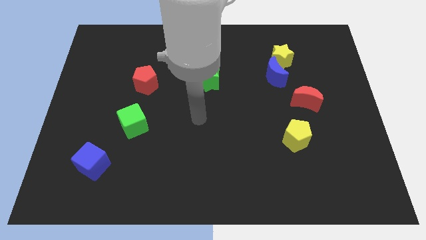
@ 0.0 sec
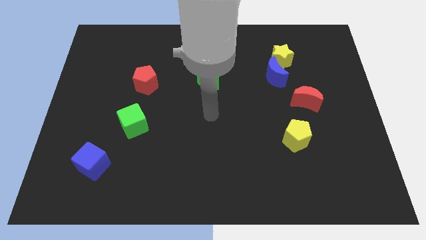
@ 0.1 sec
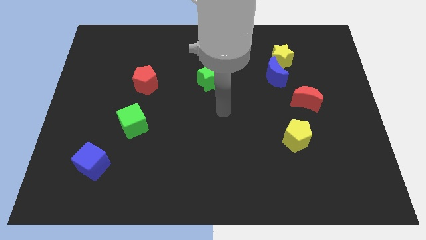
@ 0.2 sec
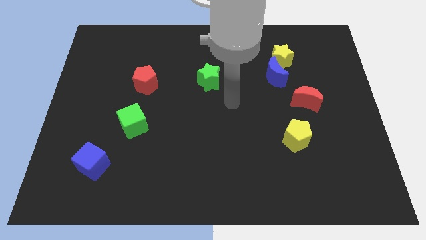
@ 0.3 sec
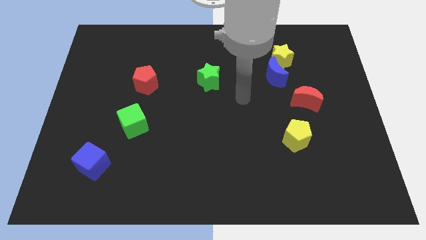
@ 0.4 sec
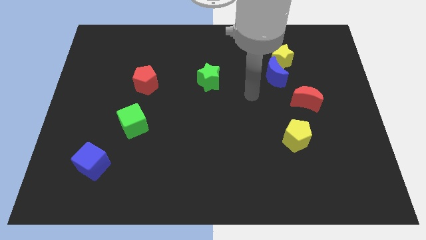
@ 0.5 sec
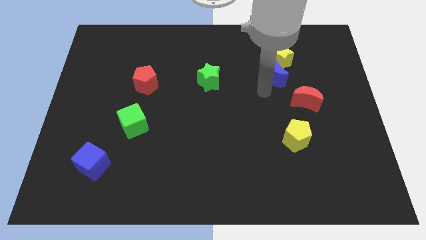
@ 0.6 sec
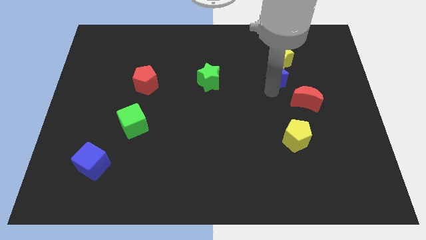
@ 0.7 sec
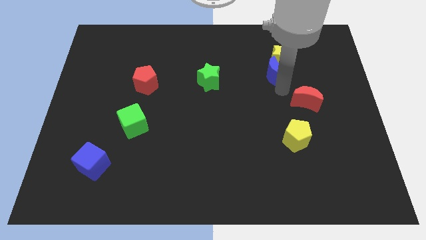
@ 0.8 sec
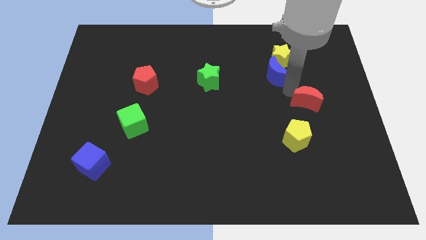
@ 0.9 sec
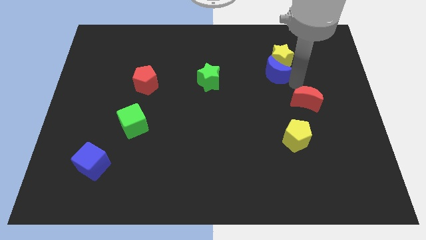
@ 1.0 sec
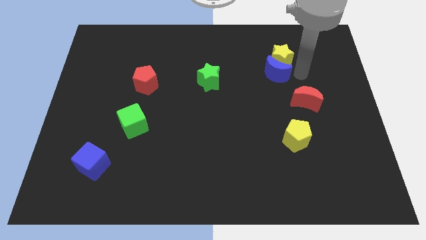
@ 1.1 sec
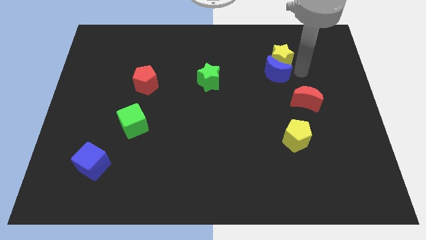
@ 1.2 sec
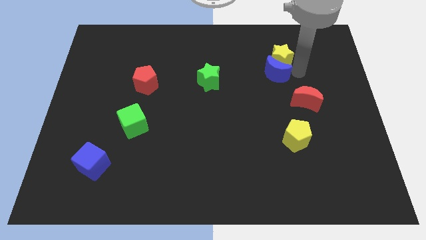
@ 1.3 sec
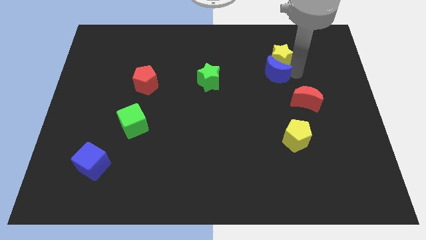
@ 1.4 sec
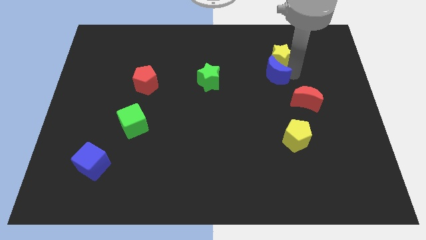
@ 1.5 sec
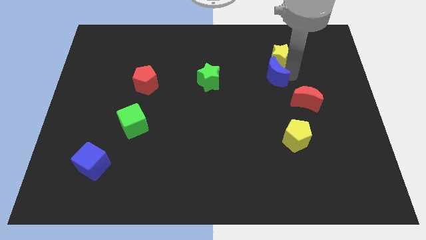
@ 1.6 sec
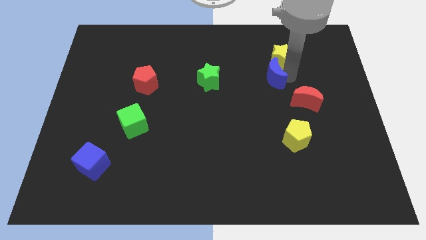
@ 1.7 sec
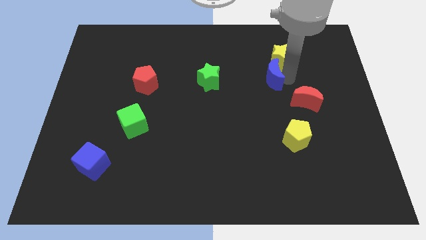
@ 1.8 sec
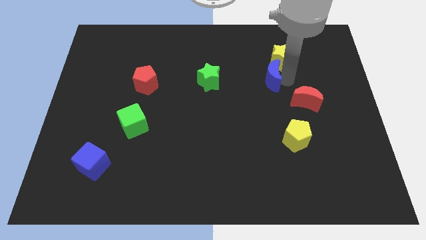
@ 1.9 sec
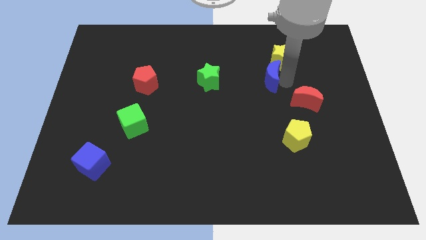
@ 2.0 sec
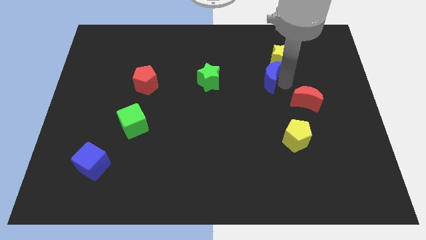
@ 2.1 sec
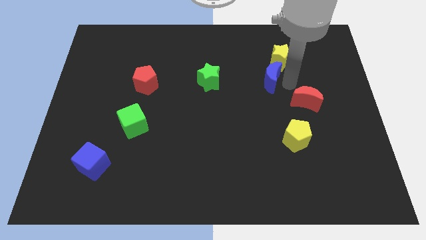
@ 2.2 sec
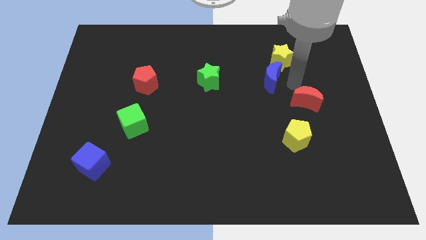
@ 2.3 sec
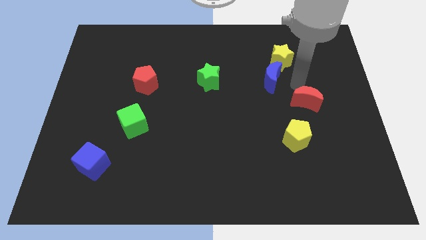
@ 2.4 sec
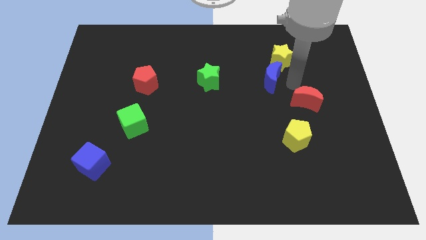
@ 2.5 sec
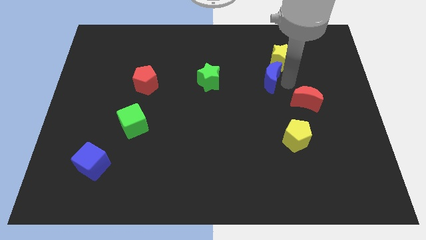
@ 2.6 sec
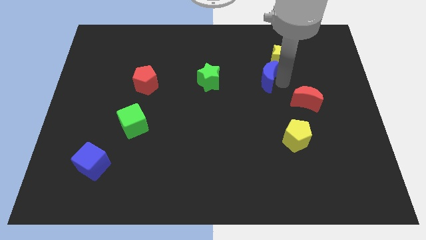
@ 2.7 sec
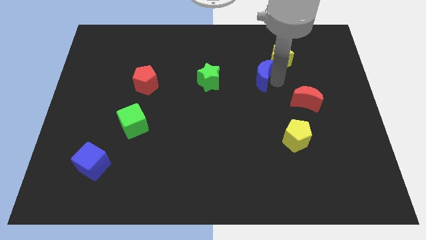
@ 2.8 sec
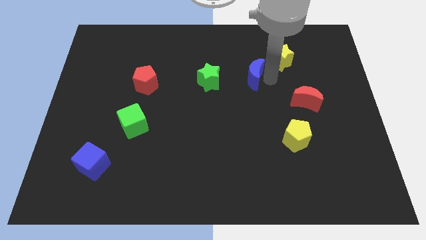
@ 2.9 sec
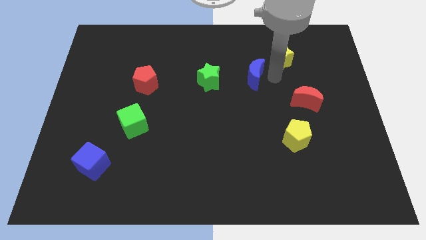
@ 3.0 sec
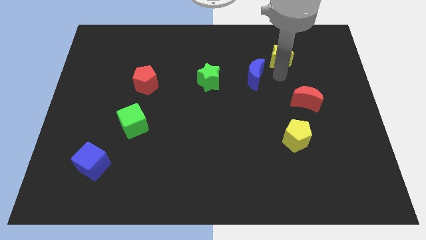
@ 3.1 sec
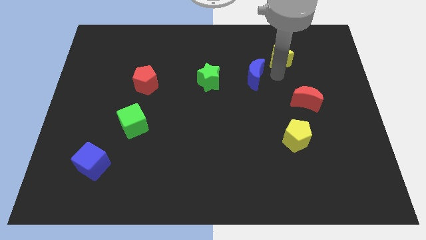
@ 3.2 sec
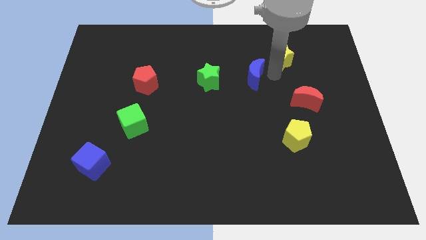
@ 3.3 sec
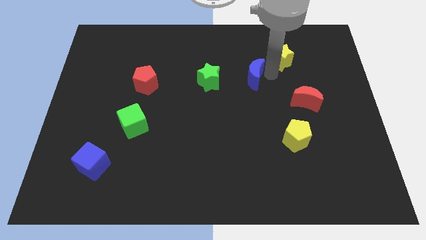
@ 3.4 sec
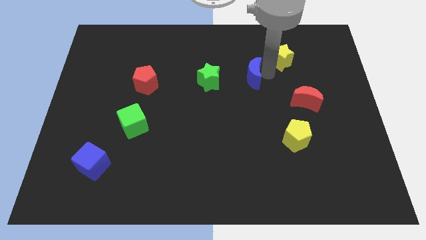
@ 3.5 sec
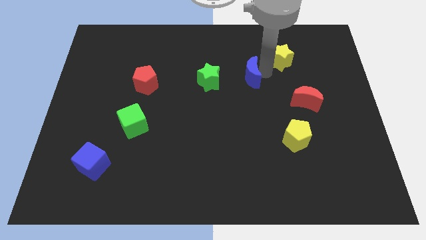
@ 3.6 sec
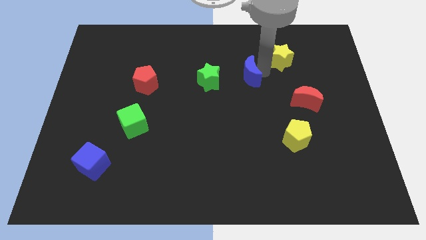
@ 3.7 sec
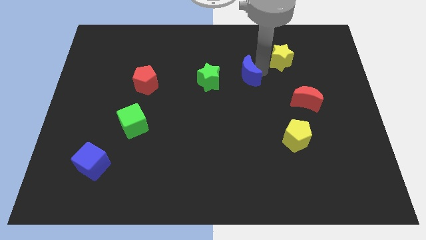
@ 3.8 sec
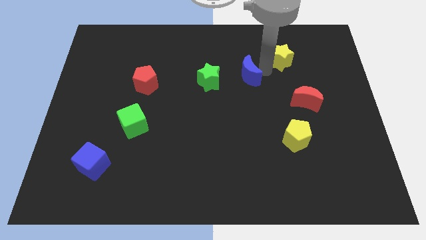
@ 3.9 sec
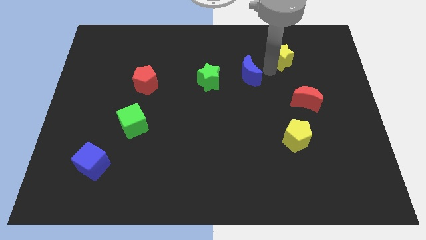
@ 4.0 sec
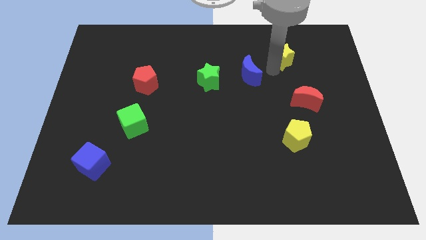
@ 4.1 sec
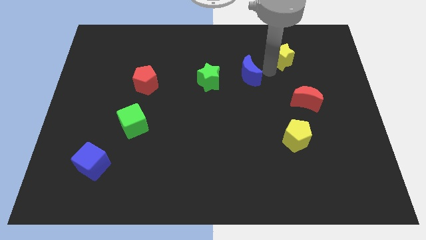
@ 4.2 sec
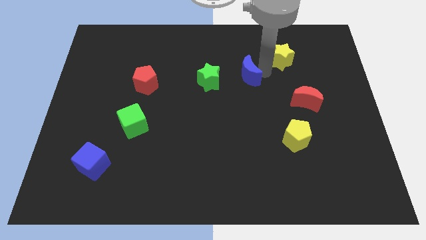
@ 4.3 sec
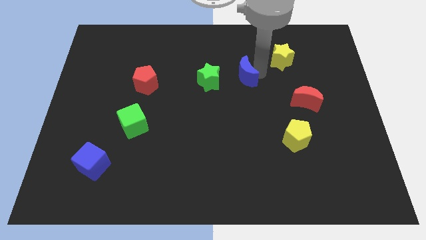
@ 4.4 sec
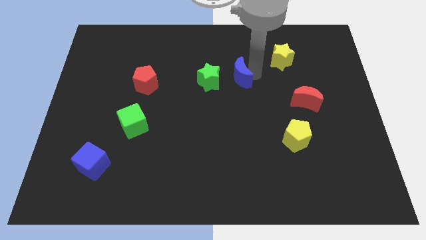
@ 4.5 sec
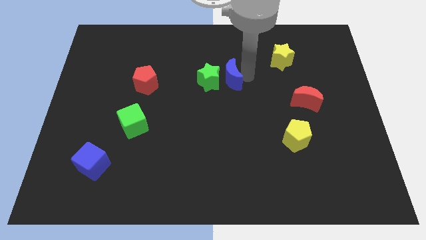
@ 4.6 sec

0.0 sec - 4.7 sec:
move the blue moon towards the green star

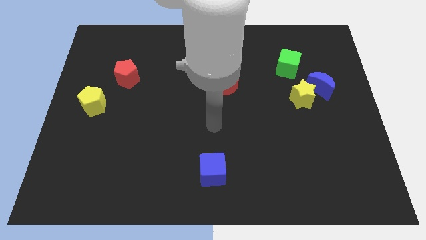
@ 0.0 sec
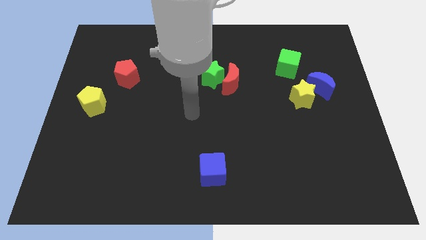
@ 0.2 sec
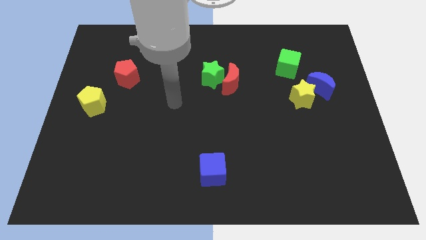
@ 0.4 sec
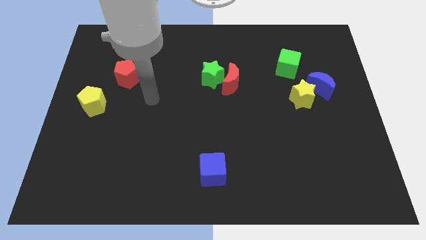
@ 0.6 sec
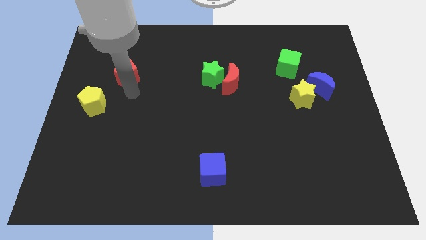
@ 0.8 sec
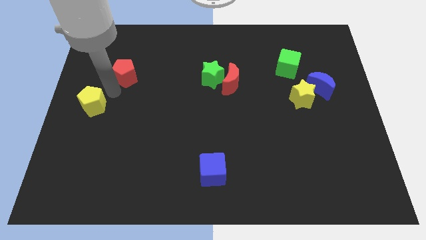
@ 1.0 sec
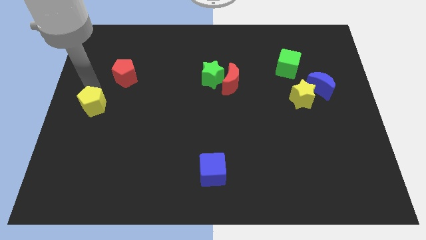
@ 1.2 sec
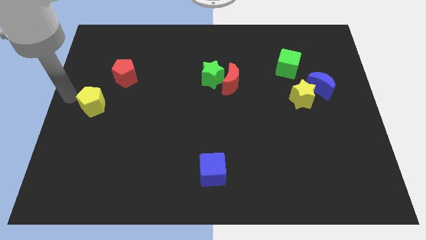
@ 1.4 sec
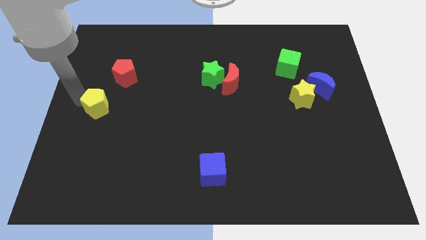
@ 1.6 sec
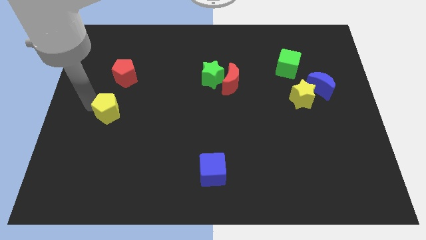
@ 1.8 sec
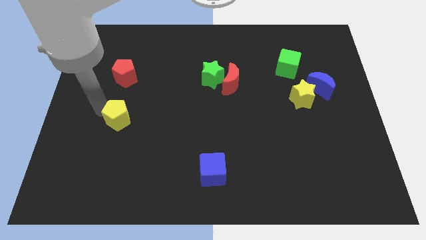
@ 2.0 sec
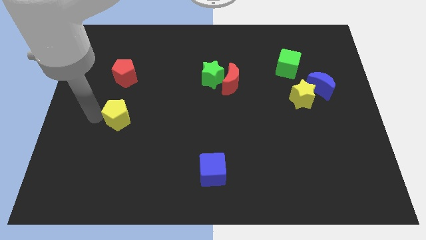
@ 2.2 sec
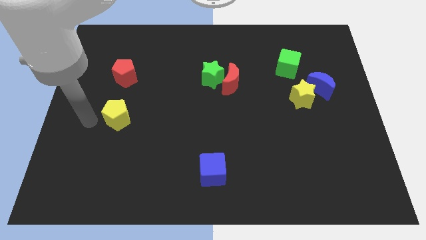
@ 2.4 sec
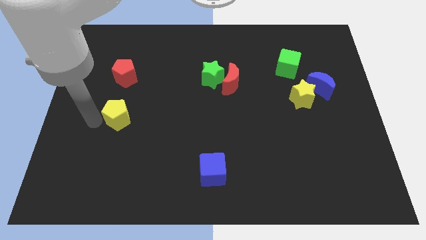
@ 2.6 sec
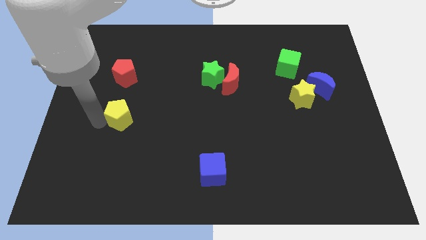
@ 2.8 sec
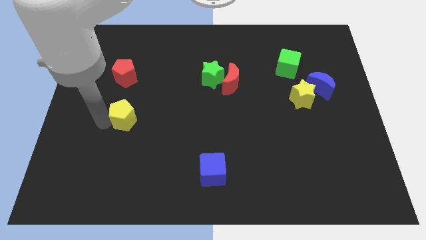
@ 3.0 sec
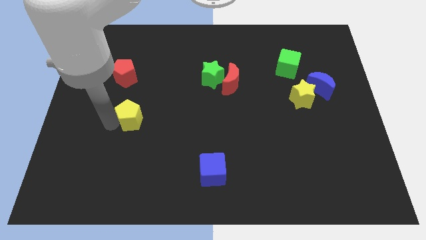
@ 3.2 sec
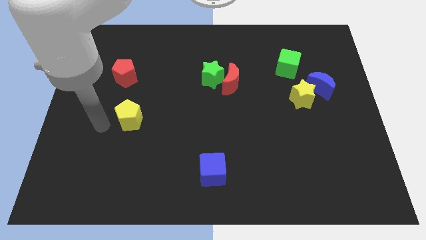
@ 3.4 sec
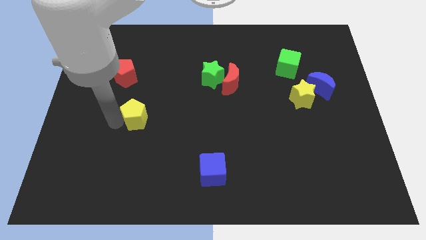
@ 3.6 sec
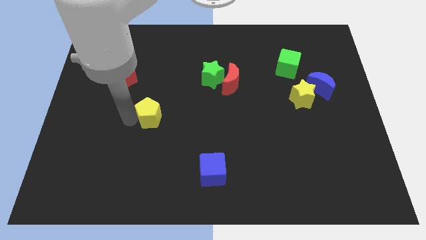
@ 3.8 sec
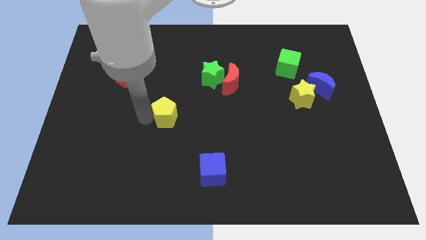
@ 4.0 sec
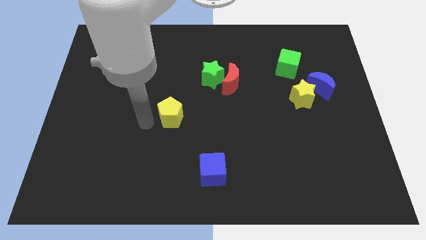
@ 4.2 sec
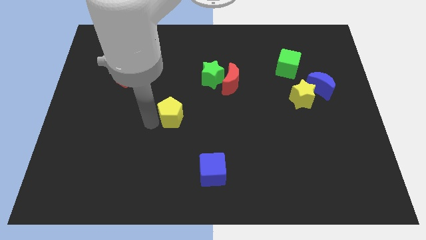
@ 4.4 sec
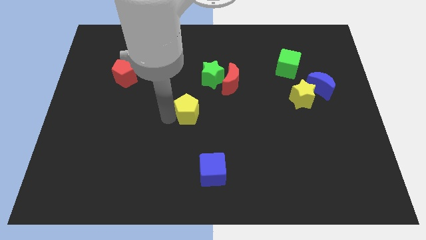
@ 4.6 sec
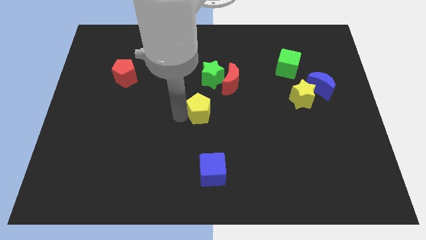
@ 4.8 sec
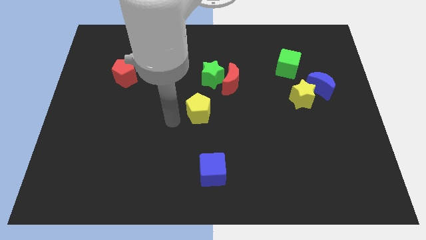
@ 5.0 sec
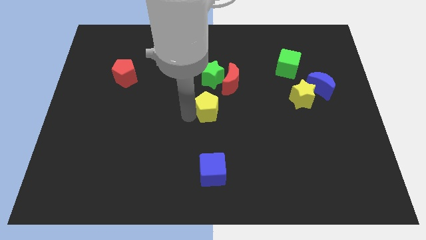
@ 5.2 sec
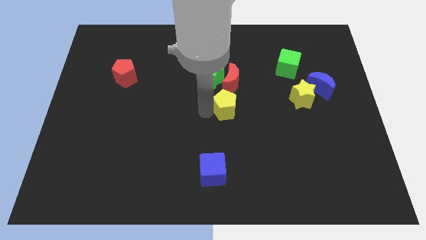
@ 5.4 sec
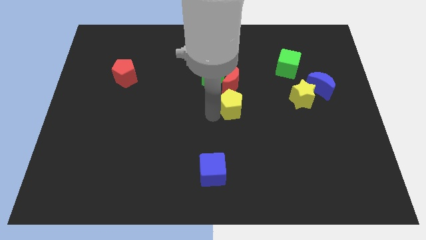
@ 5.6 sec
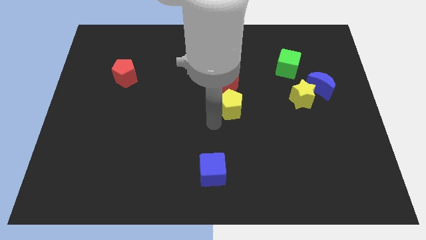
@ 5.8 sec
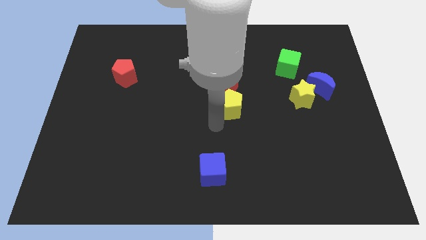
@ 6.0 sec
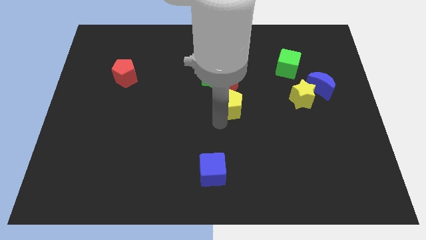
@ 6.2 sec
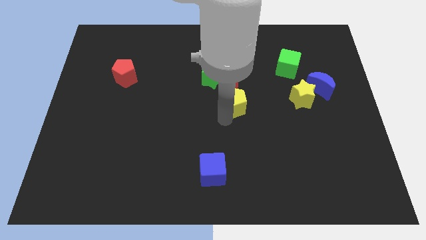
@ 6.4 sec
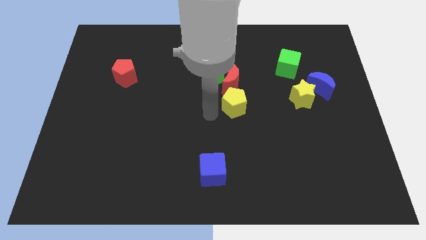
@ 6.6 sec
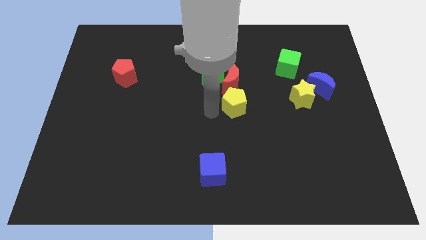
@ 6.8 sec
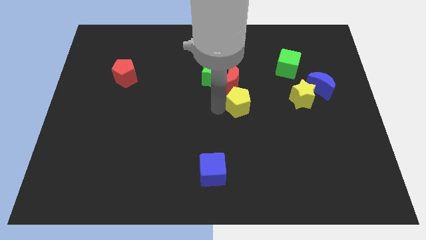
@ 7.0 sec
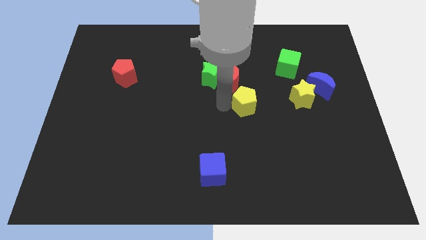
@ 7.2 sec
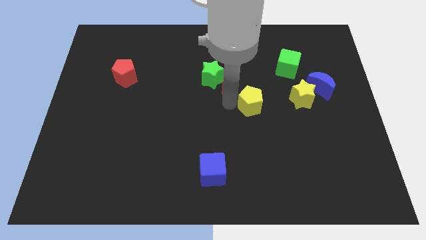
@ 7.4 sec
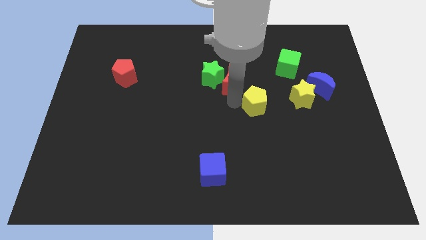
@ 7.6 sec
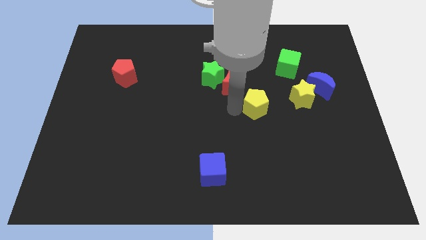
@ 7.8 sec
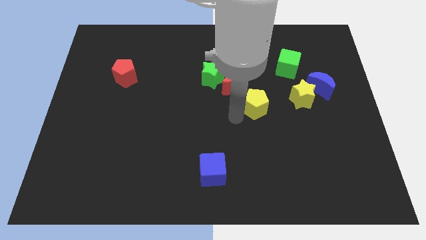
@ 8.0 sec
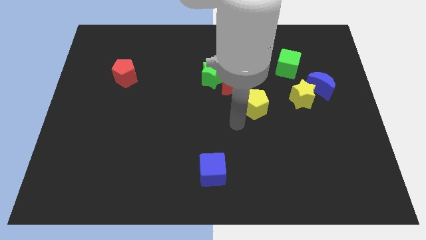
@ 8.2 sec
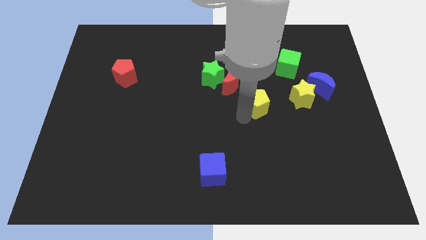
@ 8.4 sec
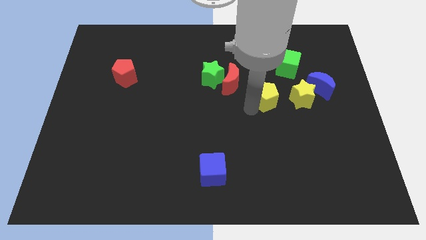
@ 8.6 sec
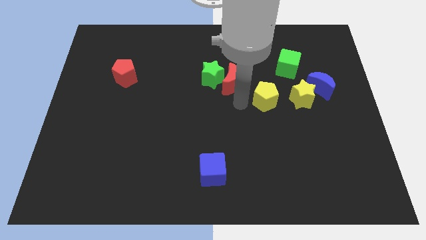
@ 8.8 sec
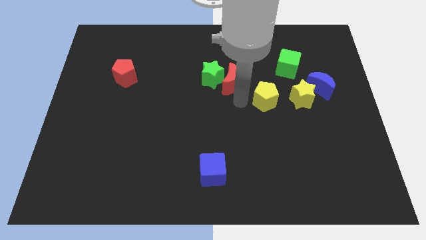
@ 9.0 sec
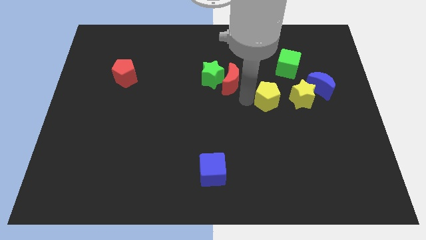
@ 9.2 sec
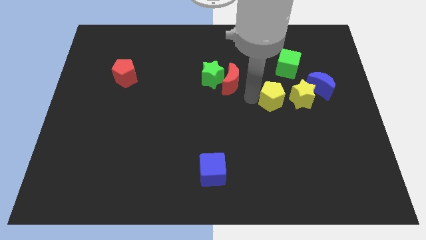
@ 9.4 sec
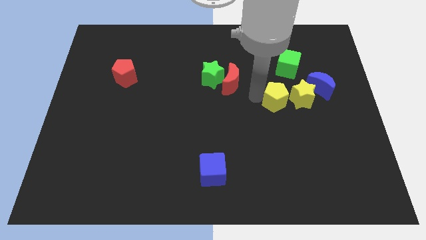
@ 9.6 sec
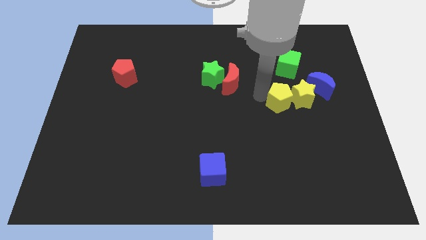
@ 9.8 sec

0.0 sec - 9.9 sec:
put the yellow pentagon towards the yellow star
